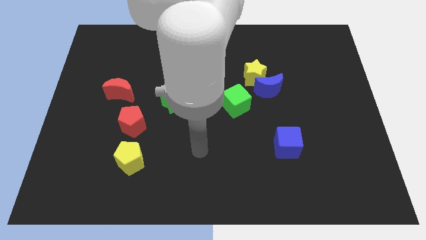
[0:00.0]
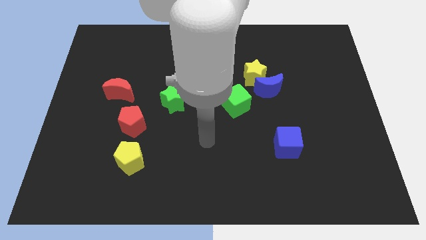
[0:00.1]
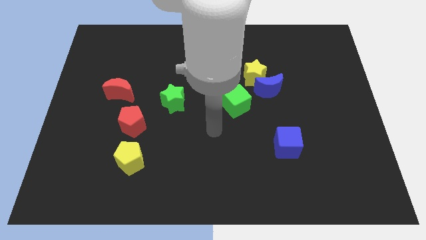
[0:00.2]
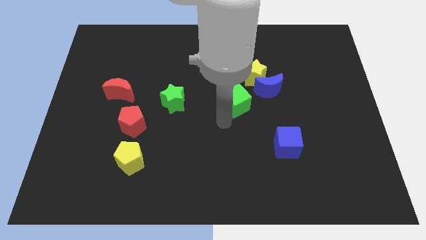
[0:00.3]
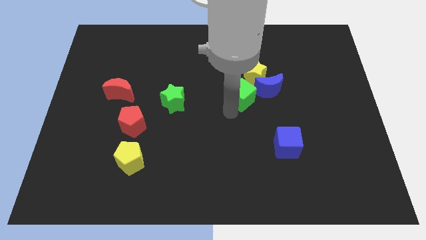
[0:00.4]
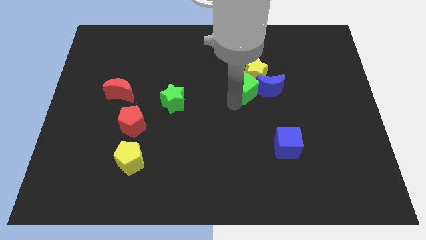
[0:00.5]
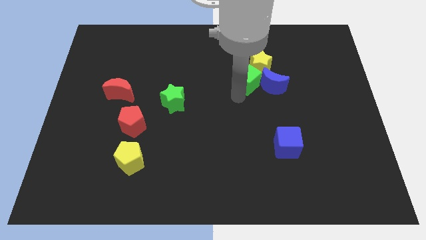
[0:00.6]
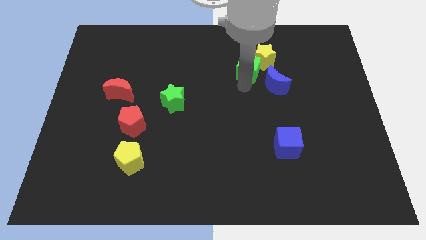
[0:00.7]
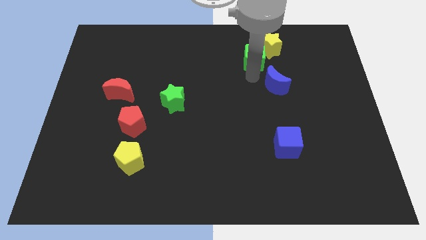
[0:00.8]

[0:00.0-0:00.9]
move the blue moon away from the yellow star and green cube

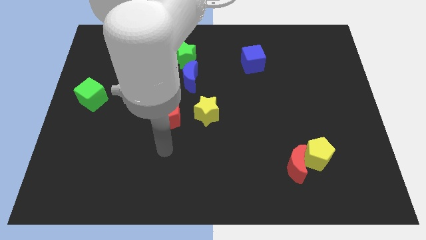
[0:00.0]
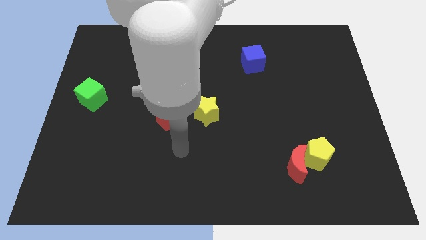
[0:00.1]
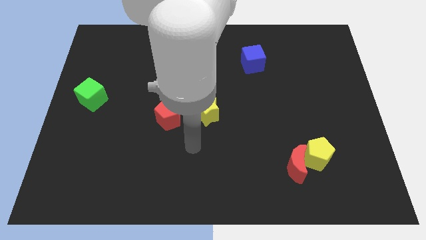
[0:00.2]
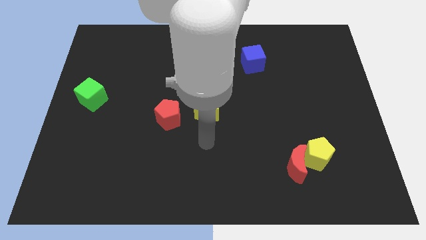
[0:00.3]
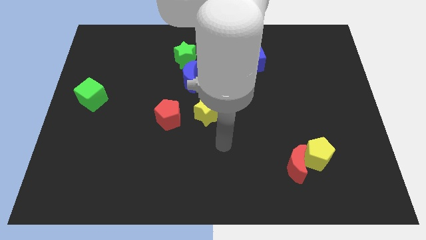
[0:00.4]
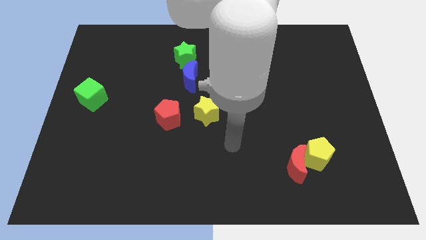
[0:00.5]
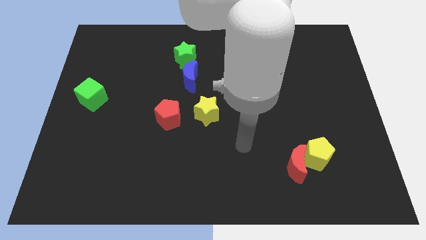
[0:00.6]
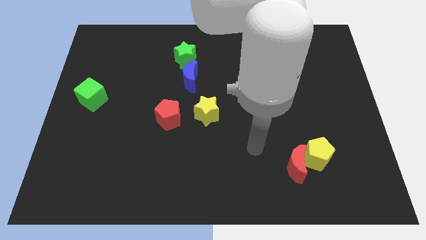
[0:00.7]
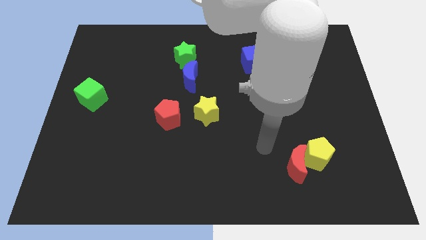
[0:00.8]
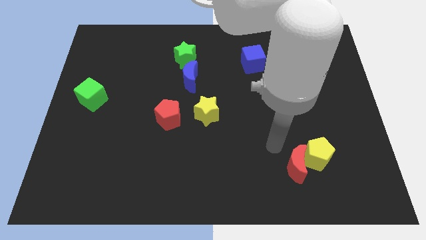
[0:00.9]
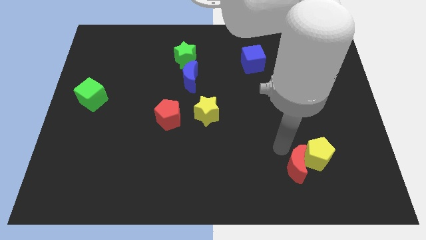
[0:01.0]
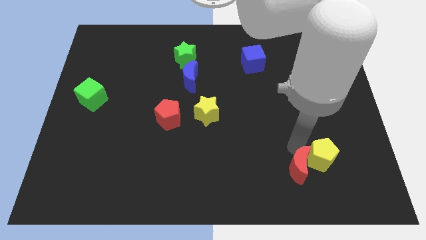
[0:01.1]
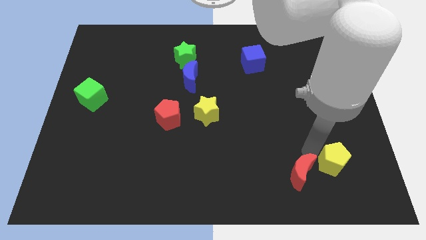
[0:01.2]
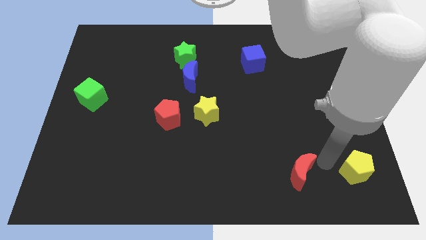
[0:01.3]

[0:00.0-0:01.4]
move the red moon away from the yellow pentagon

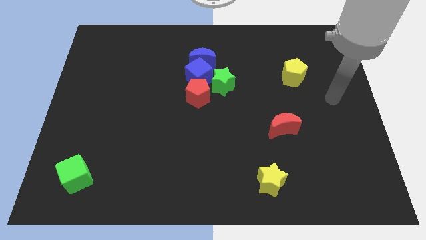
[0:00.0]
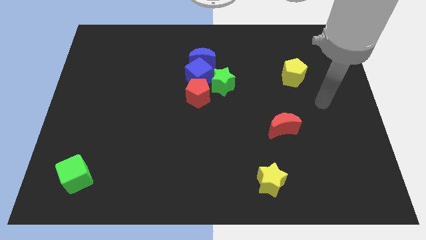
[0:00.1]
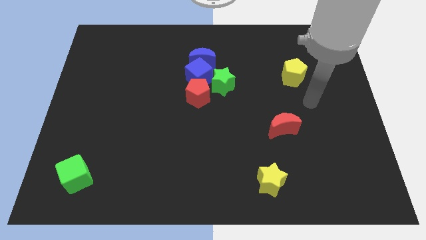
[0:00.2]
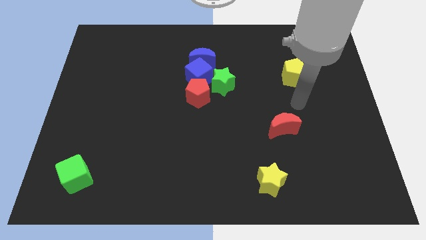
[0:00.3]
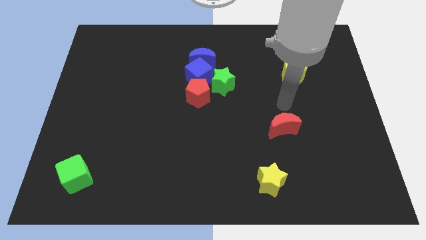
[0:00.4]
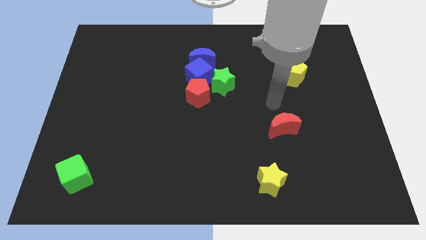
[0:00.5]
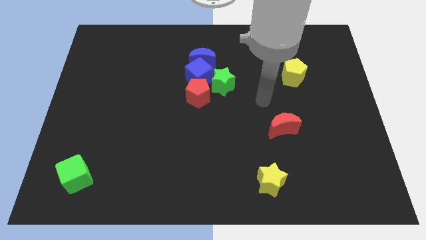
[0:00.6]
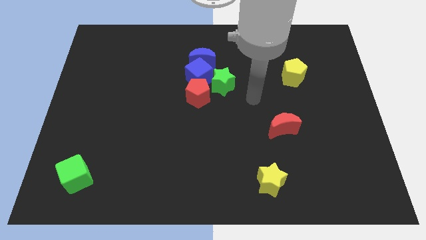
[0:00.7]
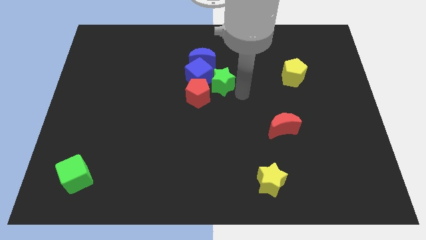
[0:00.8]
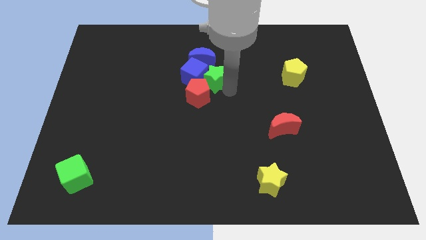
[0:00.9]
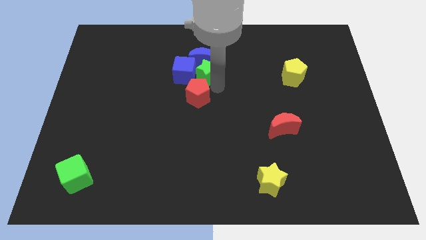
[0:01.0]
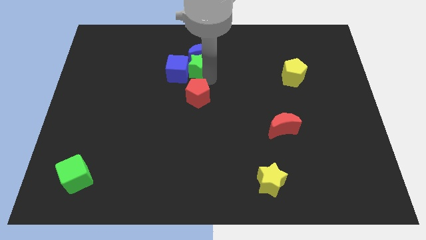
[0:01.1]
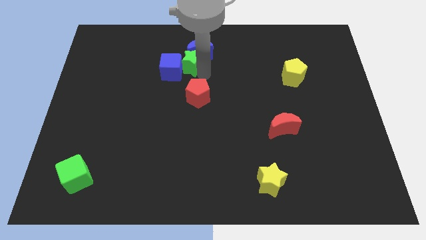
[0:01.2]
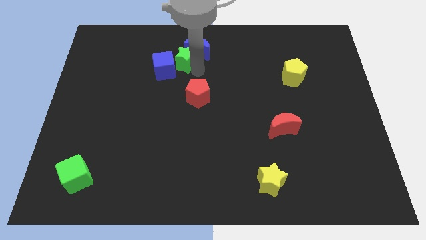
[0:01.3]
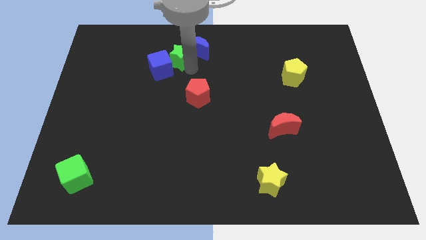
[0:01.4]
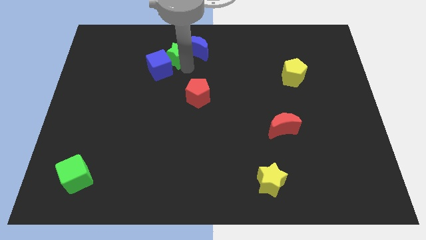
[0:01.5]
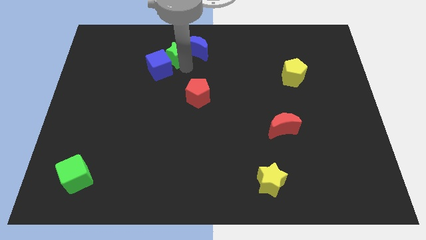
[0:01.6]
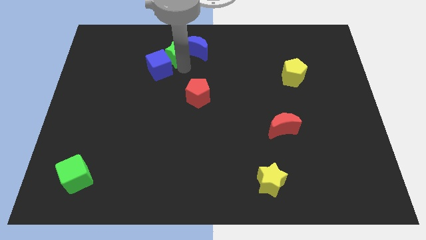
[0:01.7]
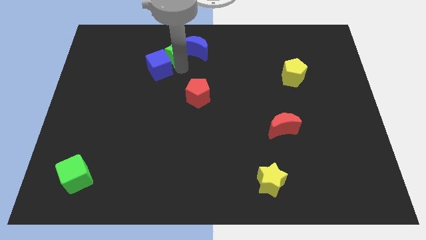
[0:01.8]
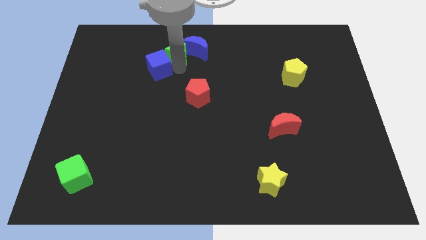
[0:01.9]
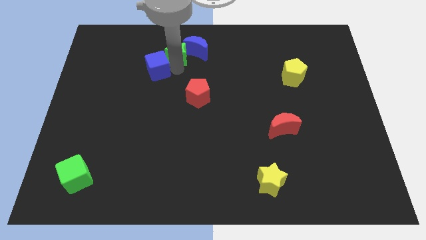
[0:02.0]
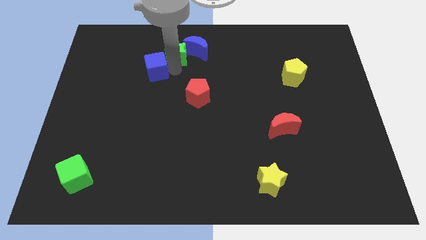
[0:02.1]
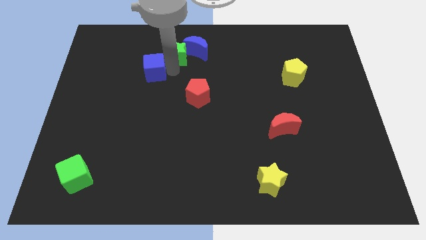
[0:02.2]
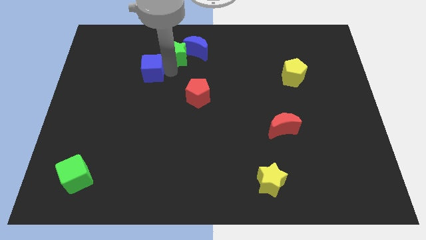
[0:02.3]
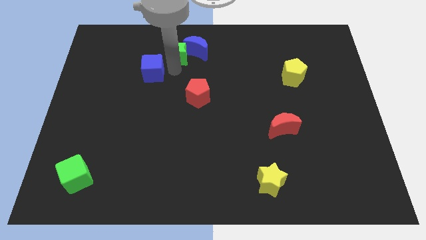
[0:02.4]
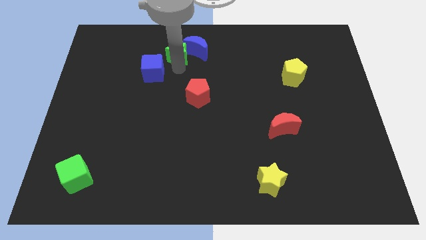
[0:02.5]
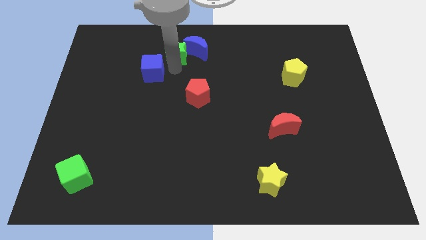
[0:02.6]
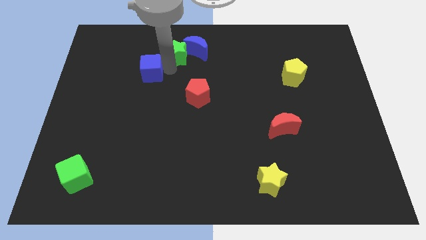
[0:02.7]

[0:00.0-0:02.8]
separate the blue cube from the group of blocks

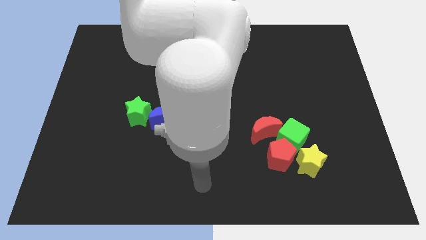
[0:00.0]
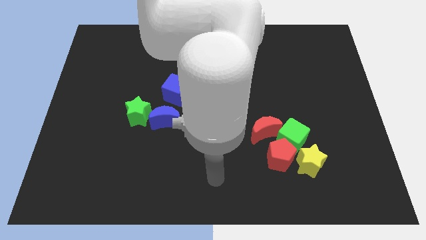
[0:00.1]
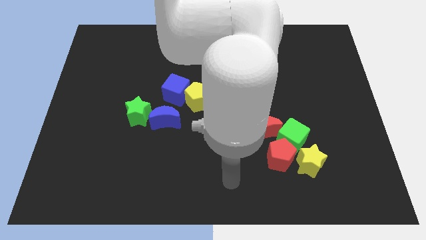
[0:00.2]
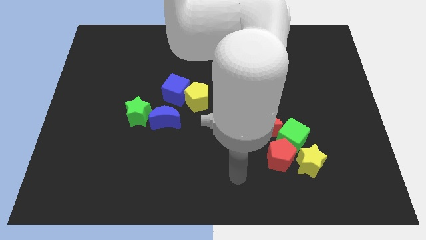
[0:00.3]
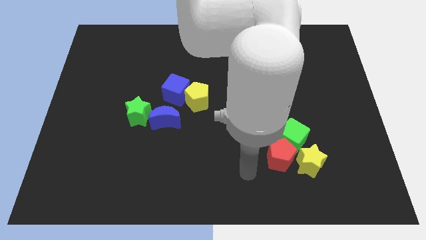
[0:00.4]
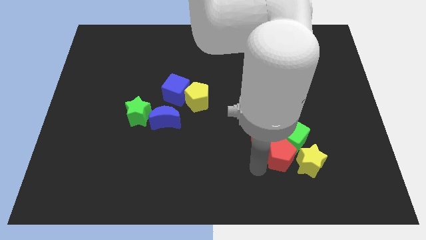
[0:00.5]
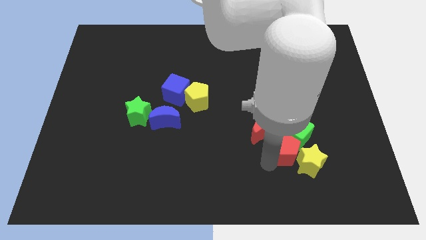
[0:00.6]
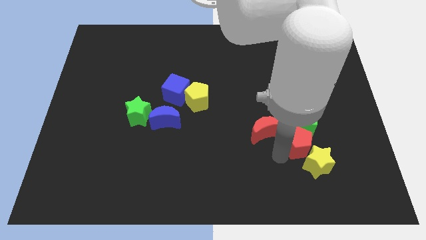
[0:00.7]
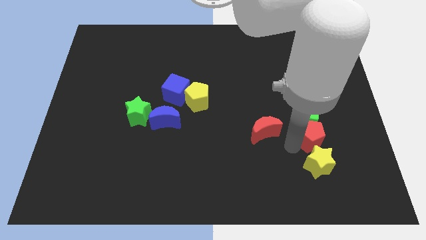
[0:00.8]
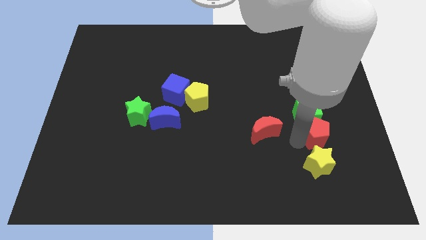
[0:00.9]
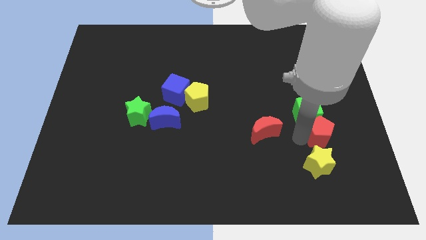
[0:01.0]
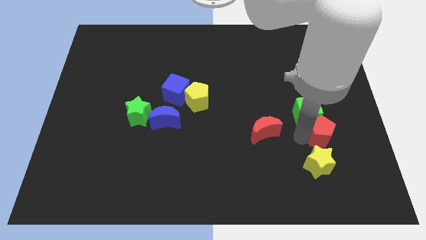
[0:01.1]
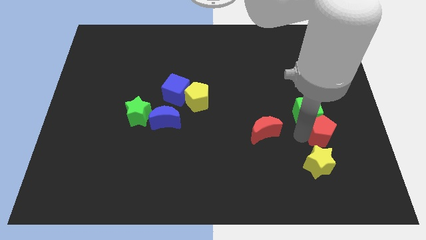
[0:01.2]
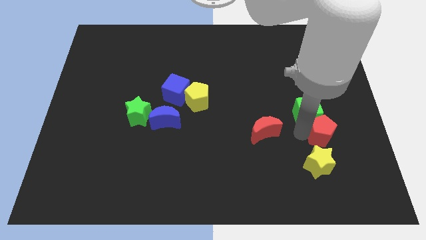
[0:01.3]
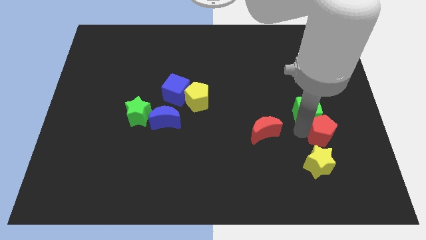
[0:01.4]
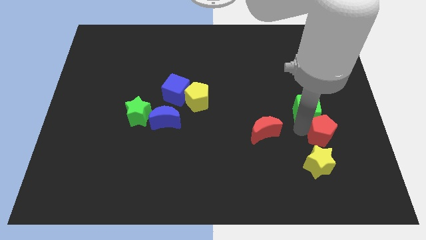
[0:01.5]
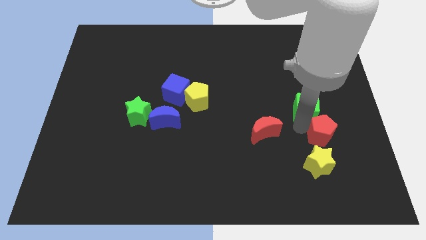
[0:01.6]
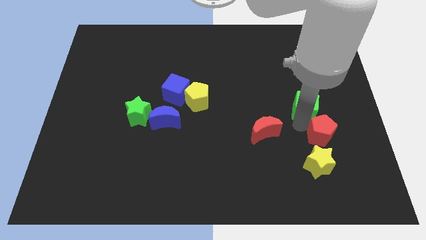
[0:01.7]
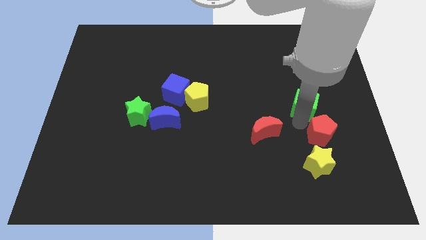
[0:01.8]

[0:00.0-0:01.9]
move the green cube away from the group

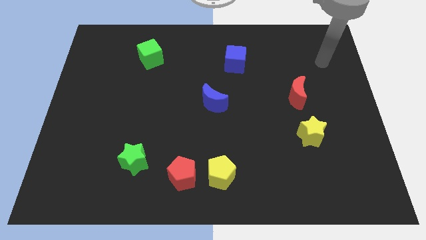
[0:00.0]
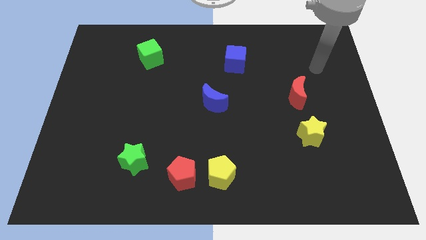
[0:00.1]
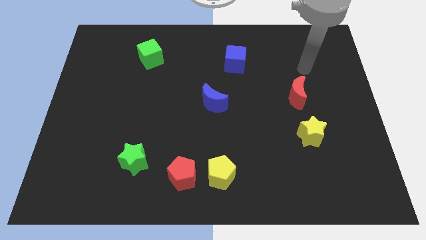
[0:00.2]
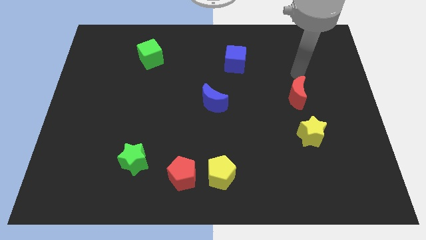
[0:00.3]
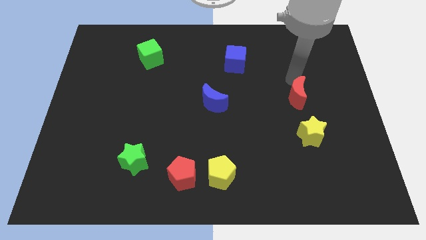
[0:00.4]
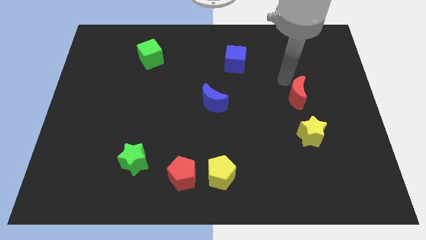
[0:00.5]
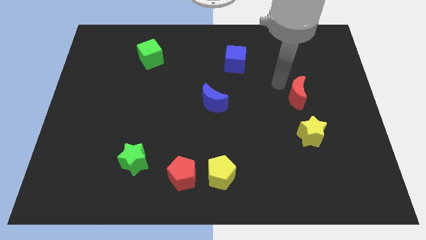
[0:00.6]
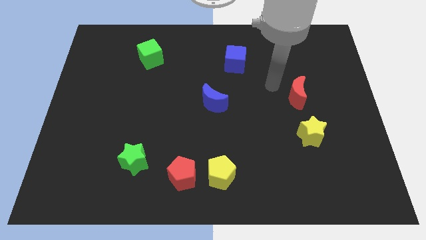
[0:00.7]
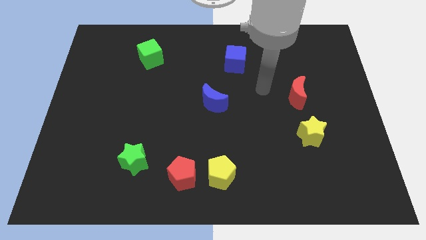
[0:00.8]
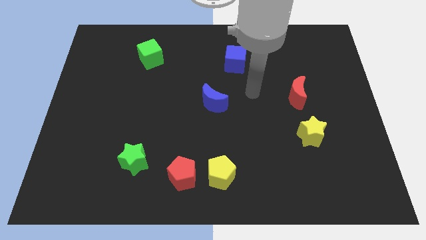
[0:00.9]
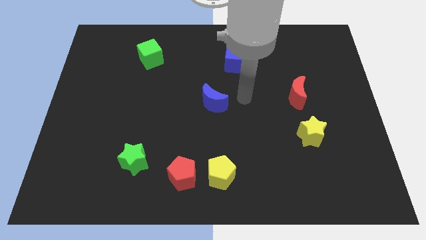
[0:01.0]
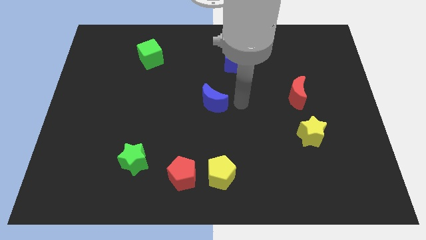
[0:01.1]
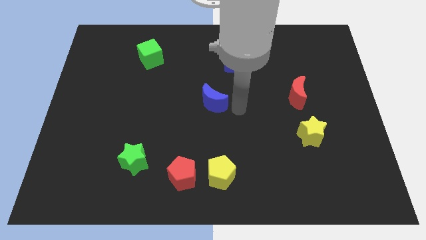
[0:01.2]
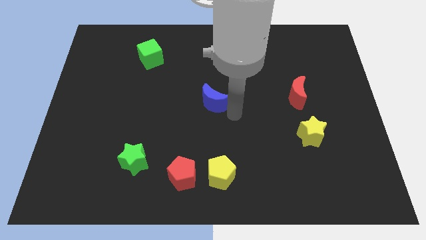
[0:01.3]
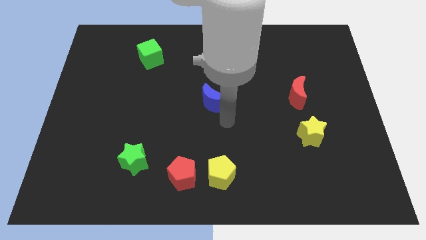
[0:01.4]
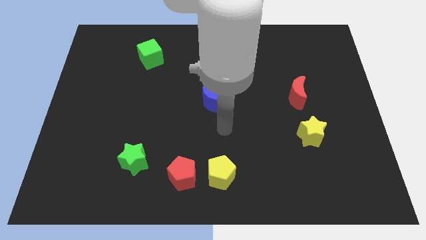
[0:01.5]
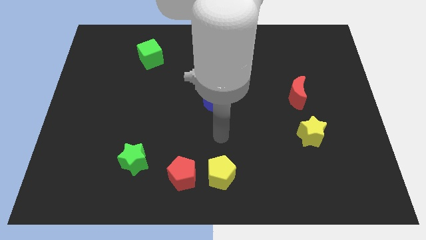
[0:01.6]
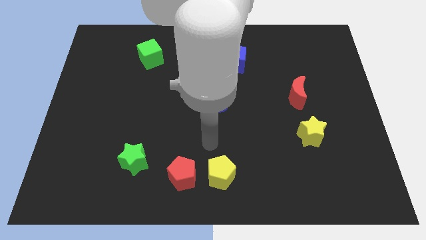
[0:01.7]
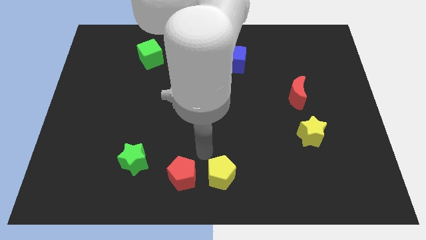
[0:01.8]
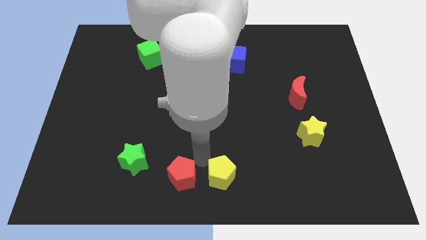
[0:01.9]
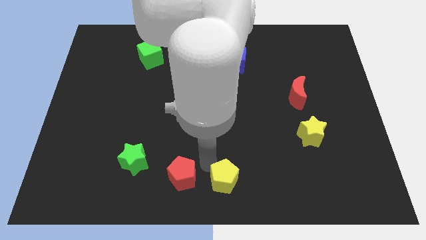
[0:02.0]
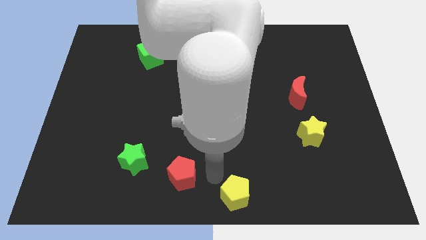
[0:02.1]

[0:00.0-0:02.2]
separate the red pentagon from the yellow pentagon

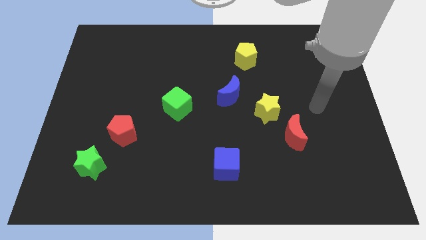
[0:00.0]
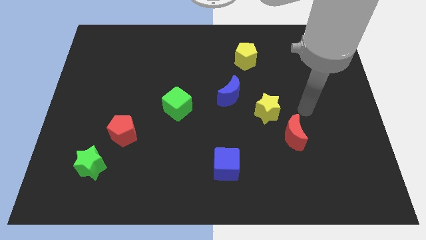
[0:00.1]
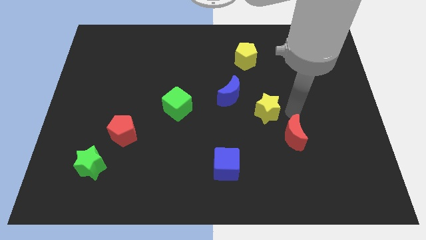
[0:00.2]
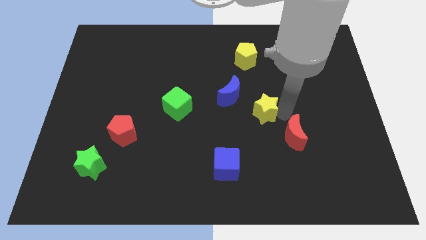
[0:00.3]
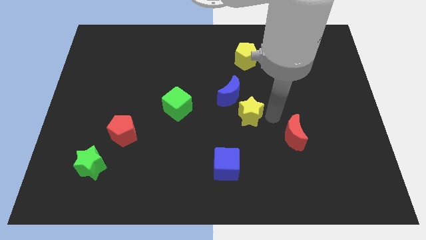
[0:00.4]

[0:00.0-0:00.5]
separate the red moon from the yellow star
